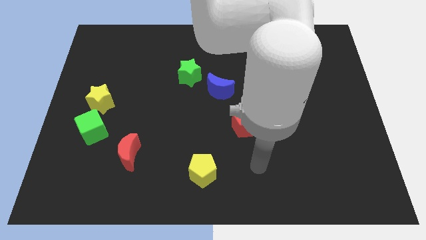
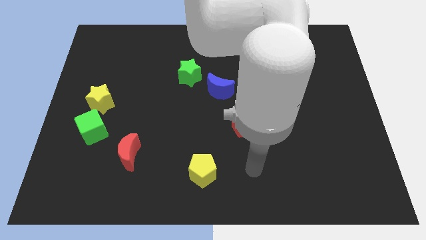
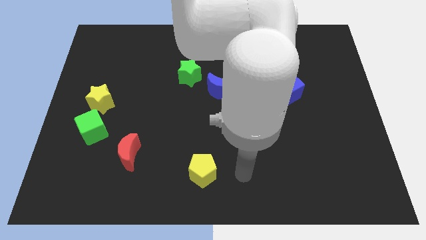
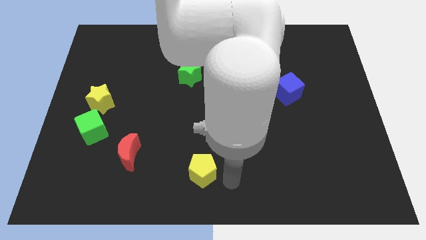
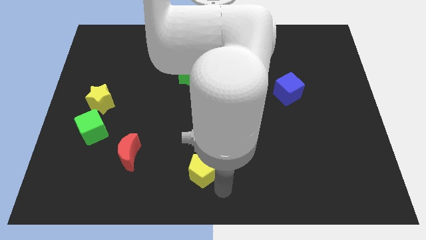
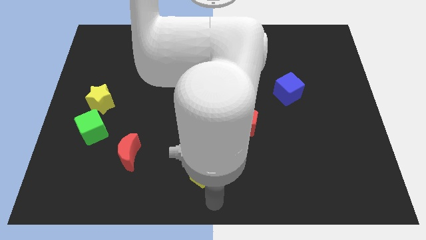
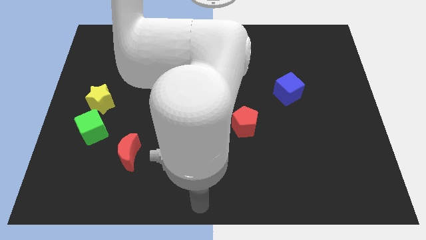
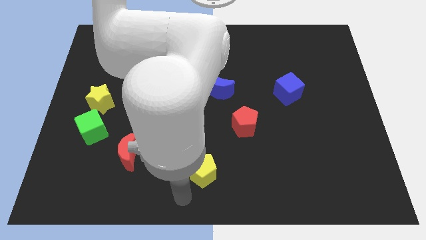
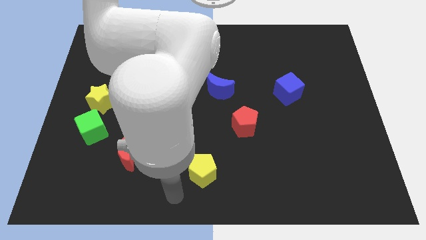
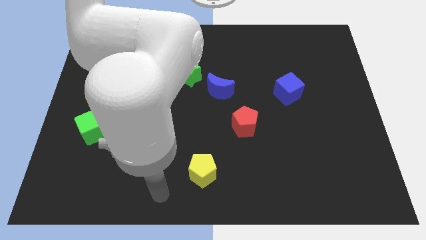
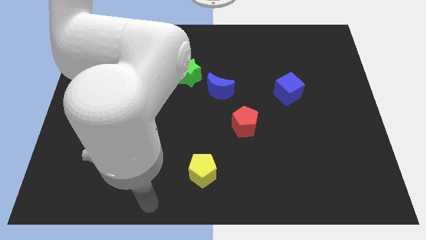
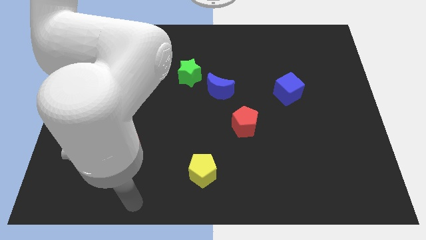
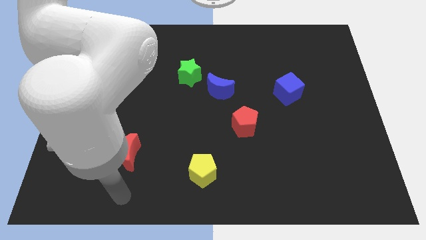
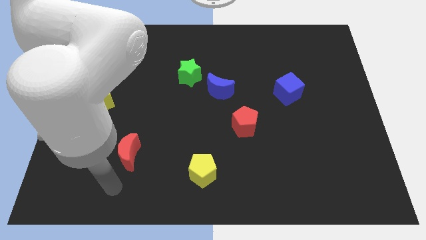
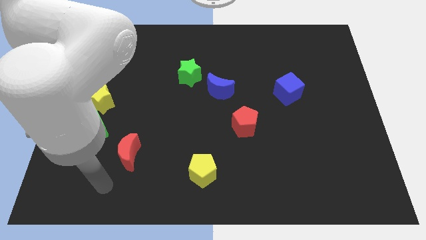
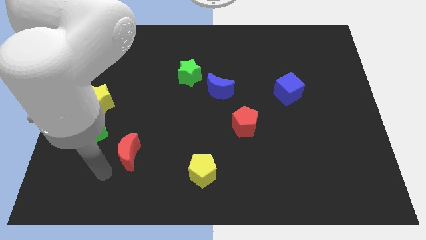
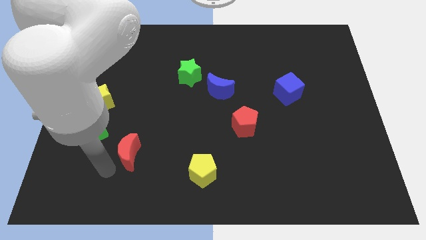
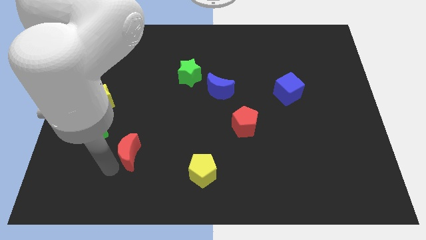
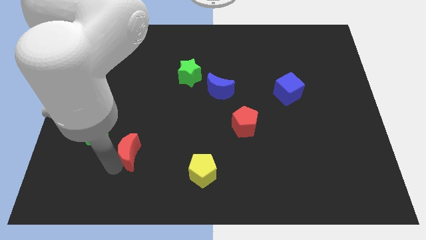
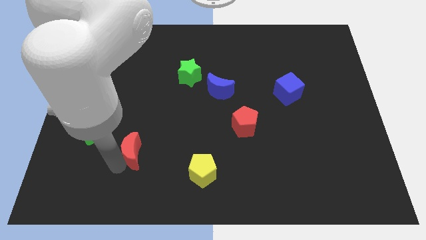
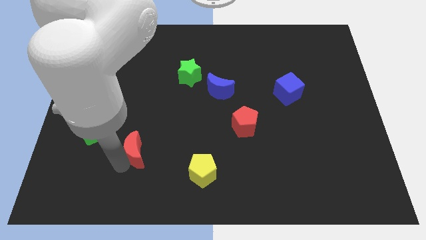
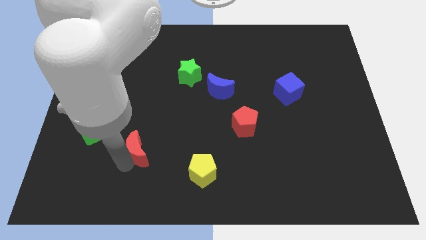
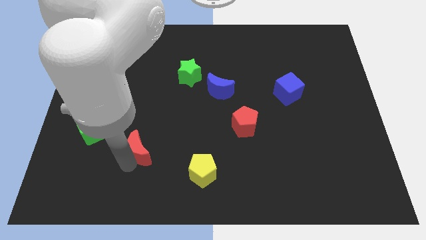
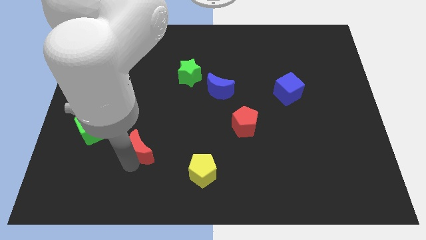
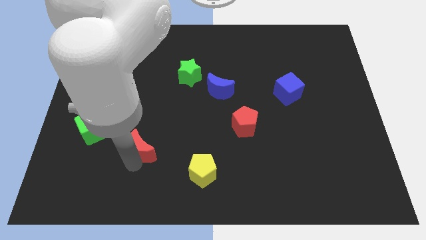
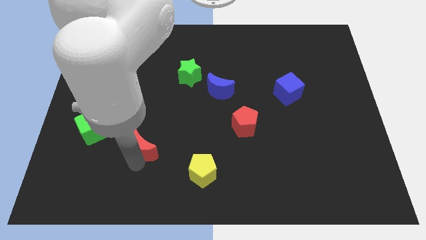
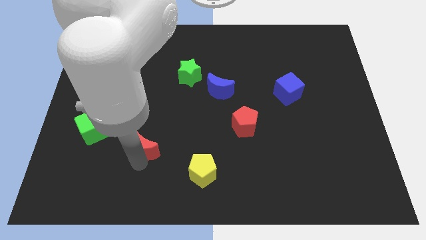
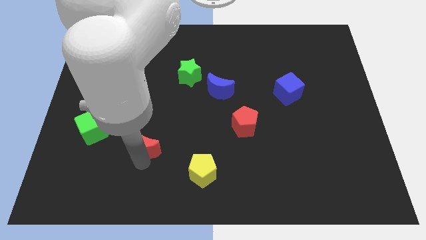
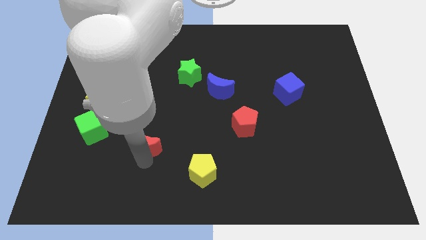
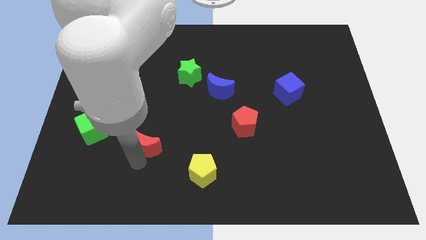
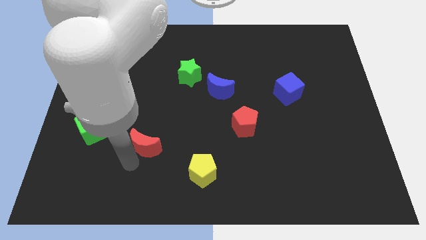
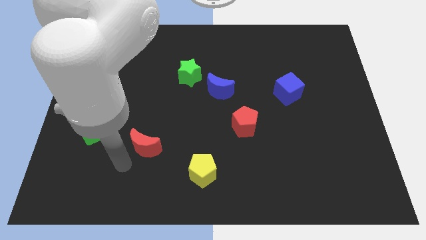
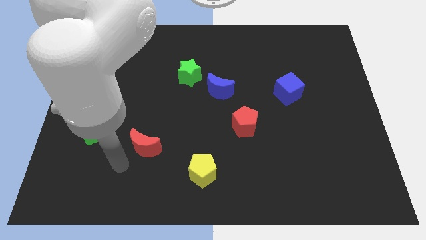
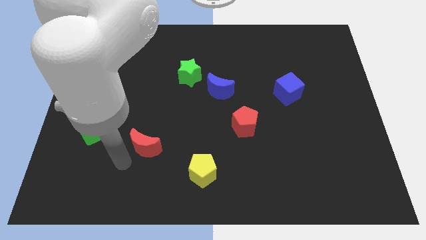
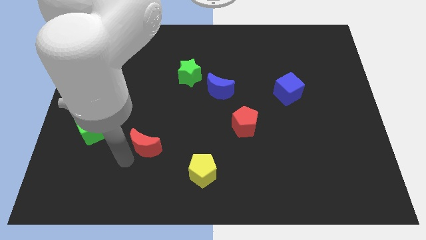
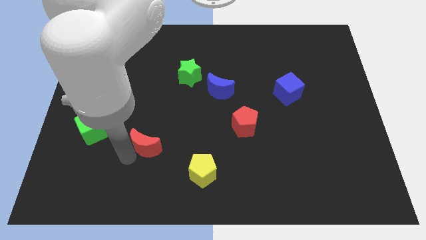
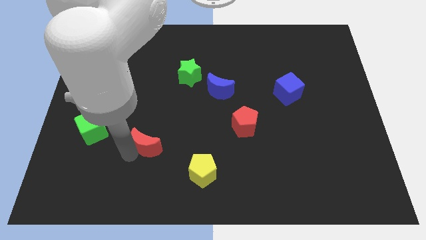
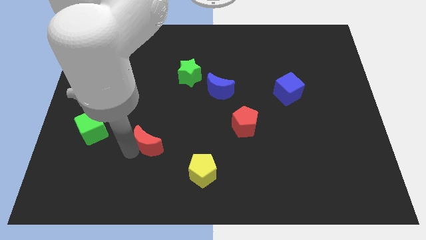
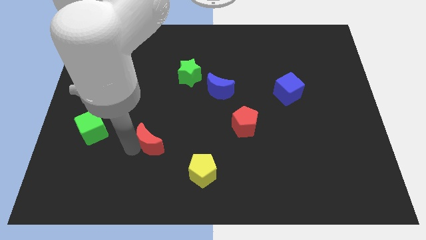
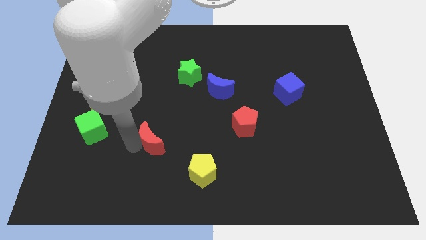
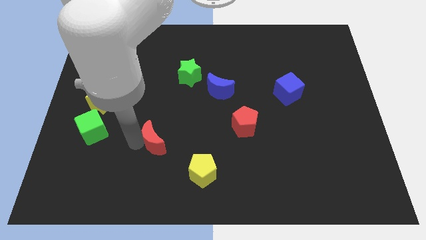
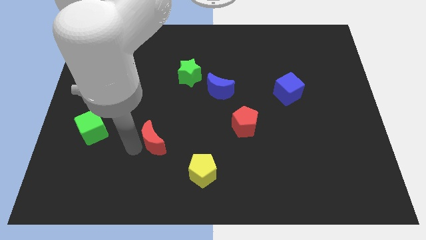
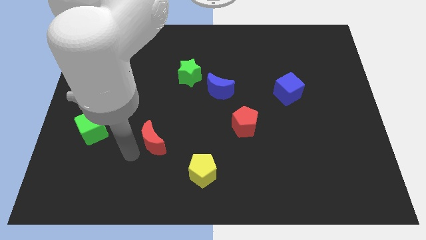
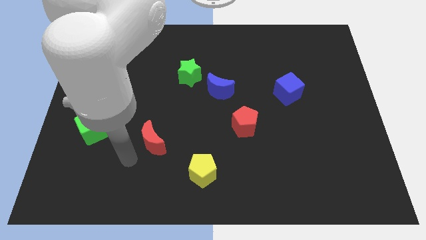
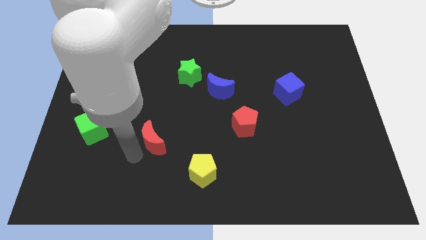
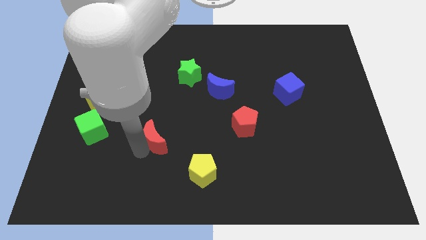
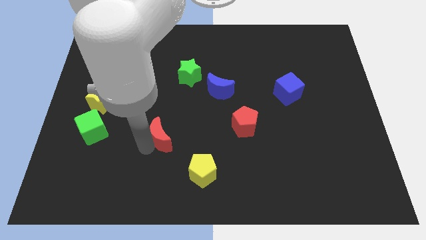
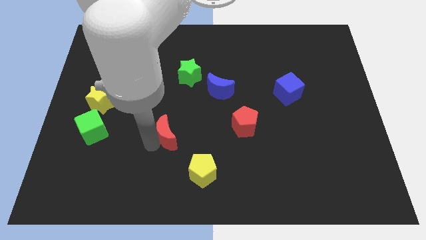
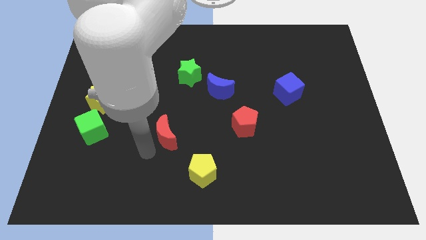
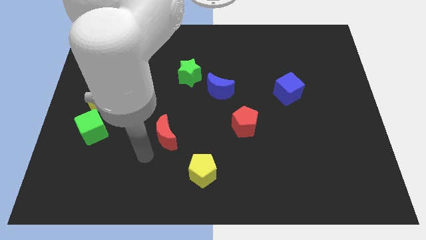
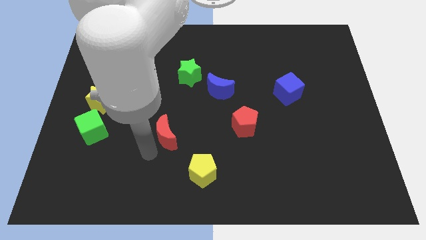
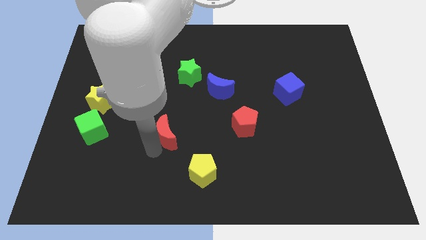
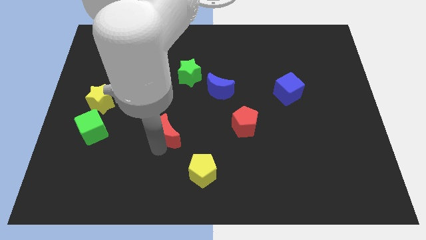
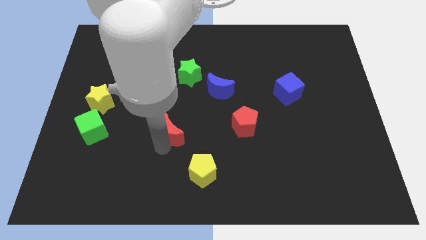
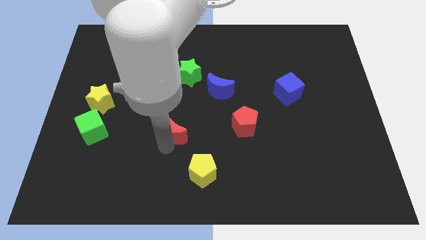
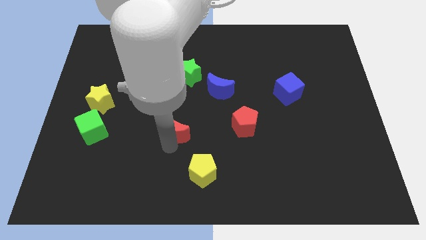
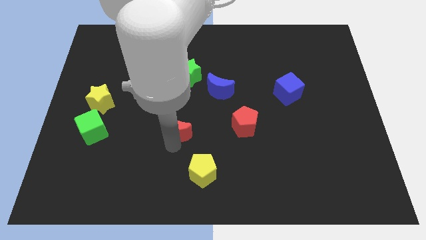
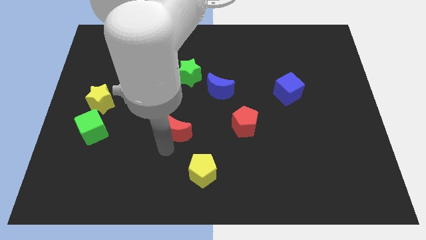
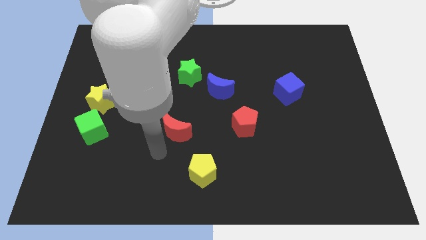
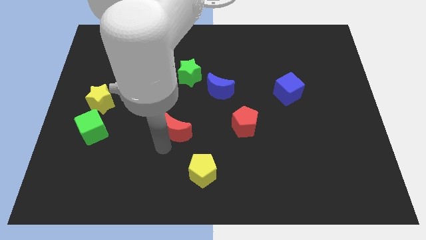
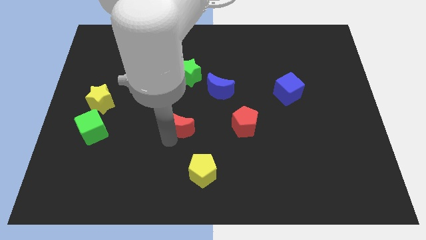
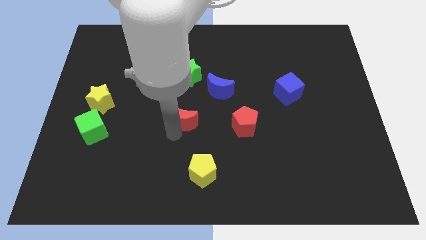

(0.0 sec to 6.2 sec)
slide the red moon to the bottom left of the blue moon

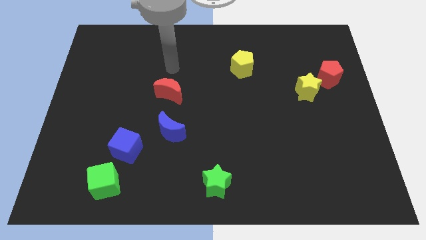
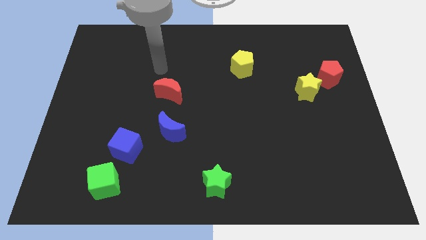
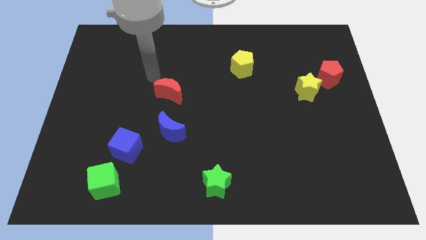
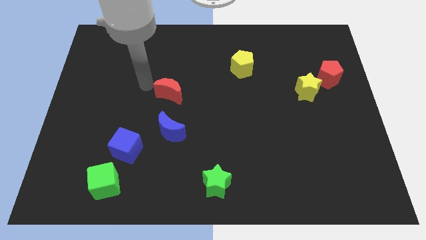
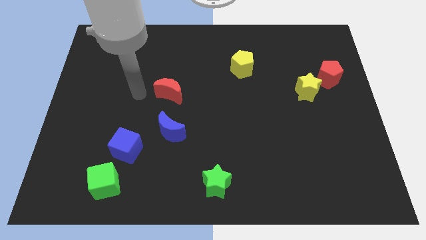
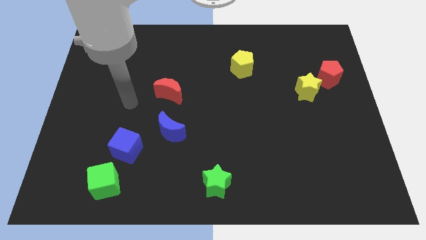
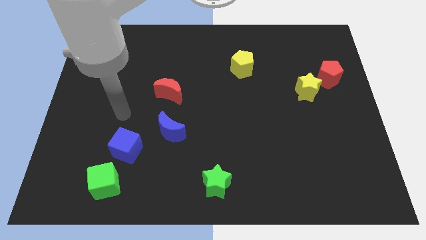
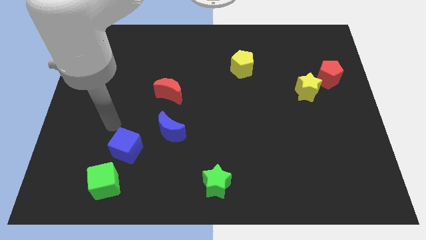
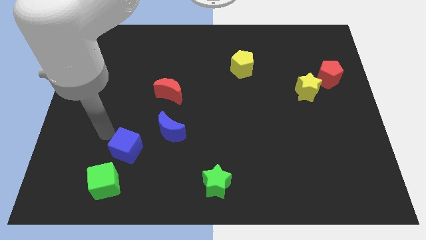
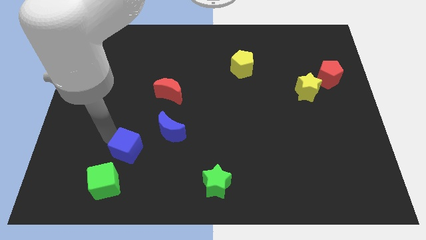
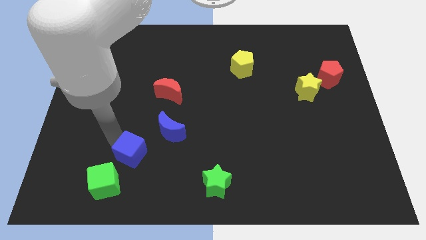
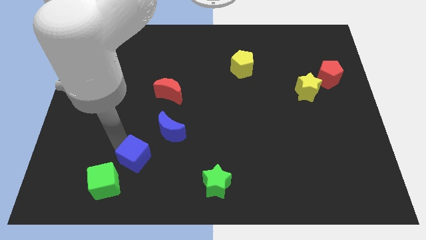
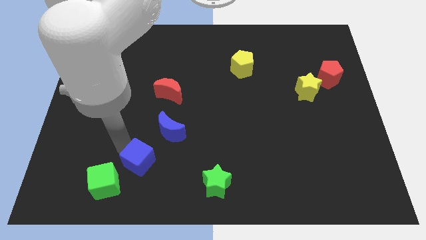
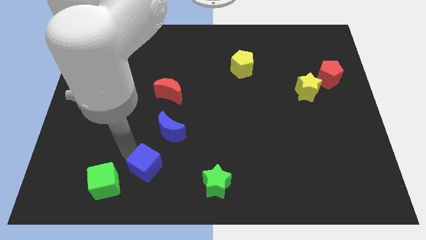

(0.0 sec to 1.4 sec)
slide the blue cube below the blue moon
